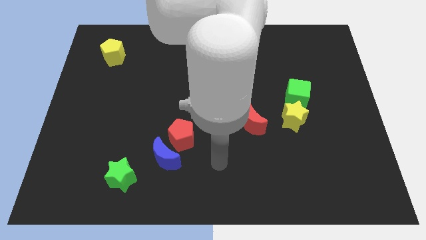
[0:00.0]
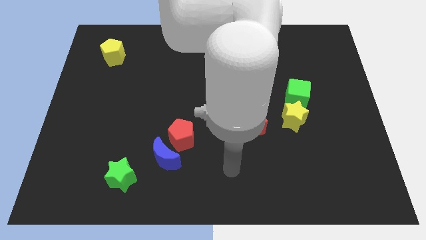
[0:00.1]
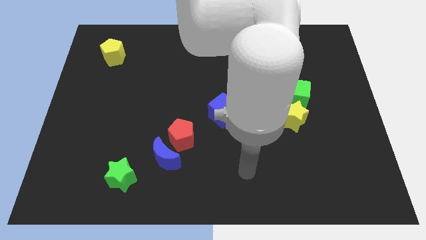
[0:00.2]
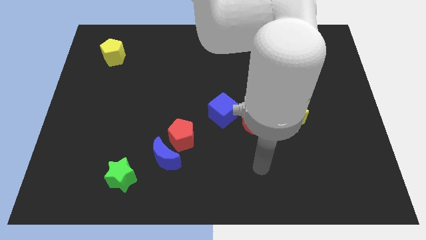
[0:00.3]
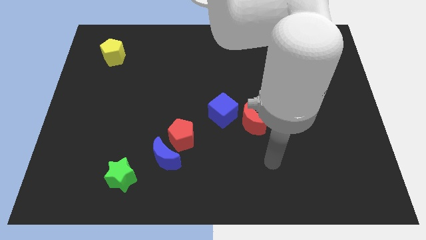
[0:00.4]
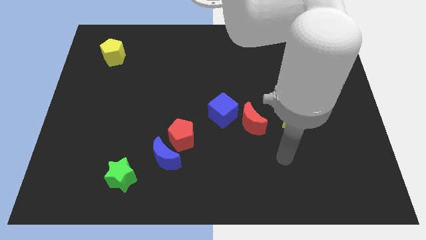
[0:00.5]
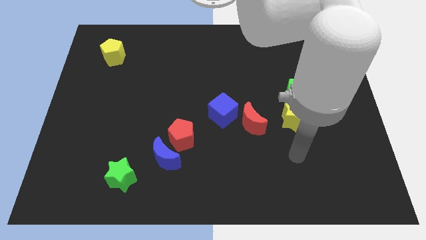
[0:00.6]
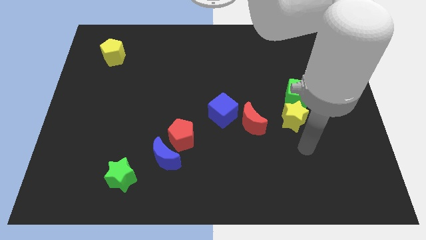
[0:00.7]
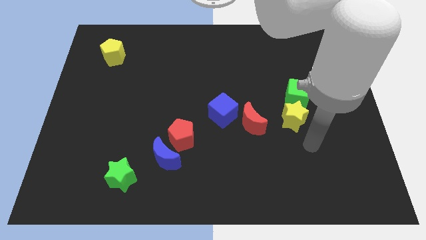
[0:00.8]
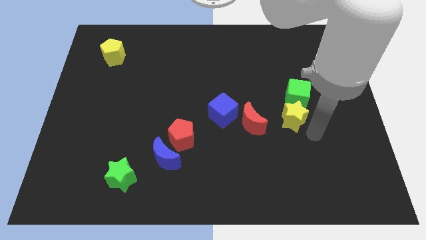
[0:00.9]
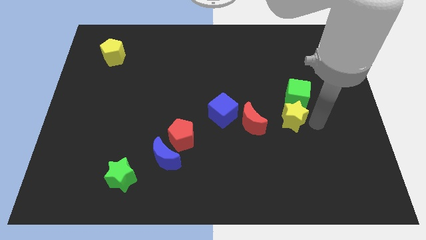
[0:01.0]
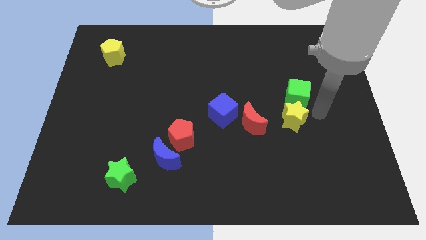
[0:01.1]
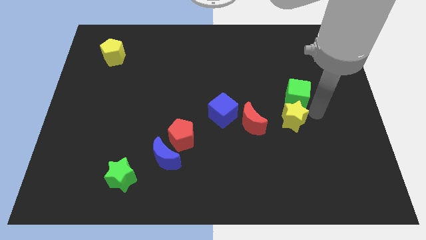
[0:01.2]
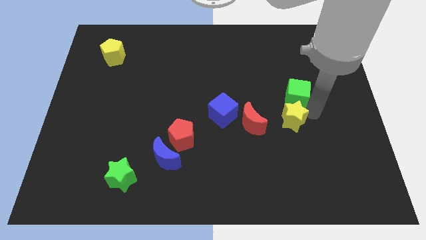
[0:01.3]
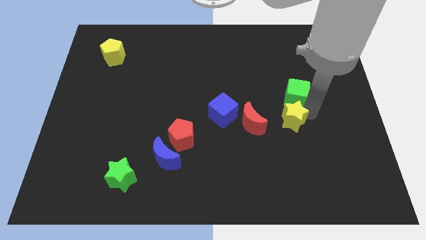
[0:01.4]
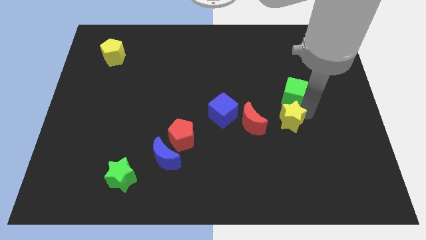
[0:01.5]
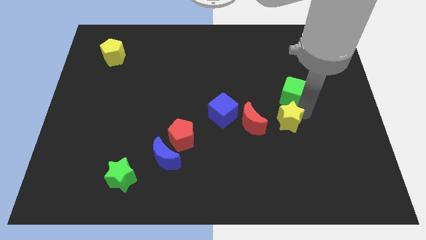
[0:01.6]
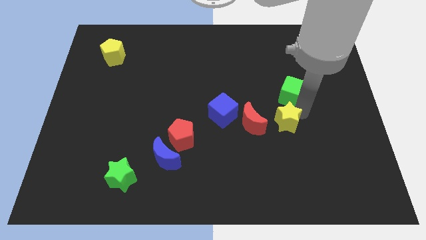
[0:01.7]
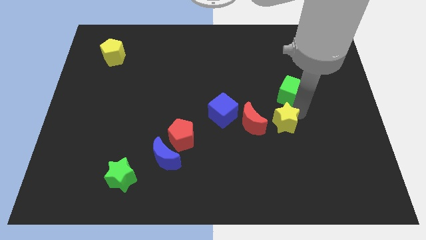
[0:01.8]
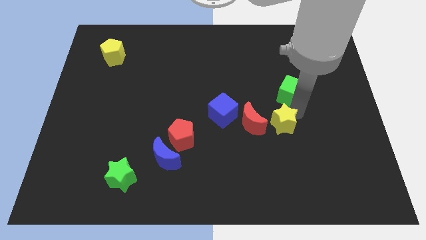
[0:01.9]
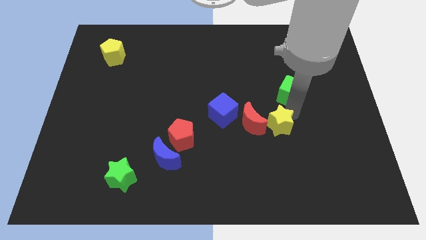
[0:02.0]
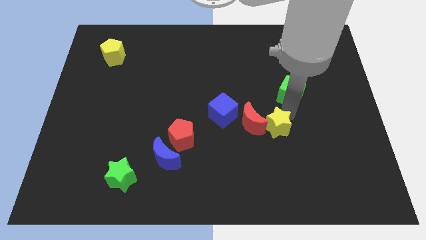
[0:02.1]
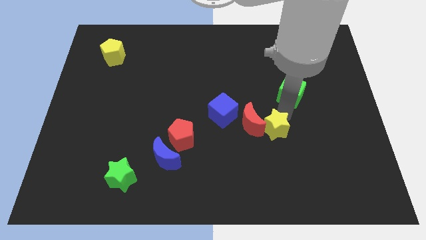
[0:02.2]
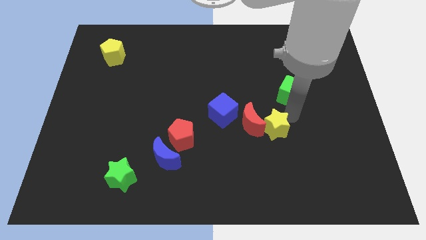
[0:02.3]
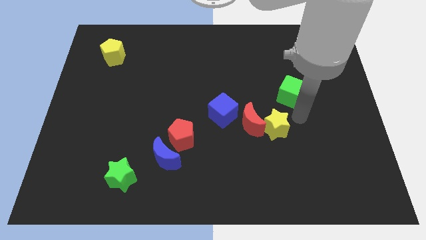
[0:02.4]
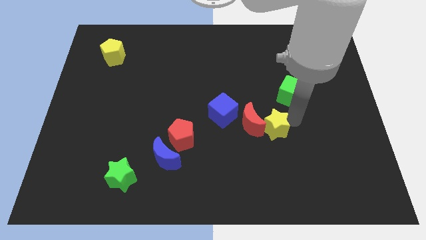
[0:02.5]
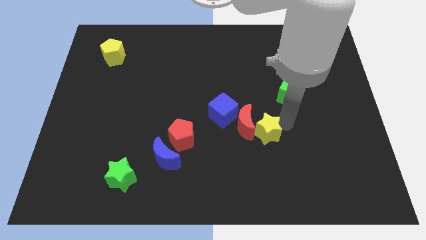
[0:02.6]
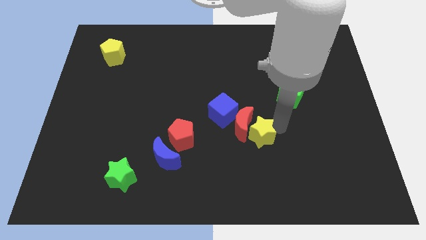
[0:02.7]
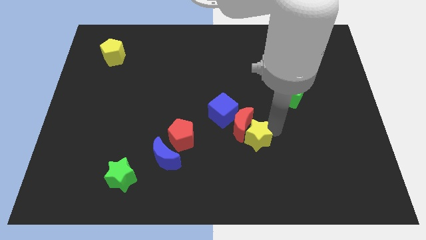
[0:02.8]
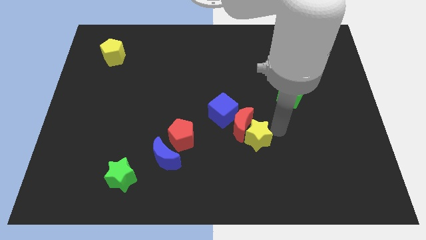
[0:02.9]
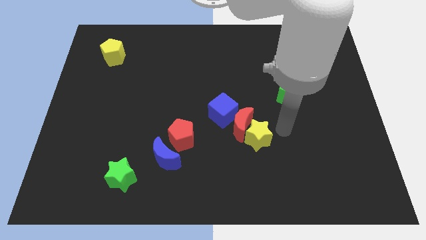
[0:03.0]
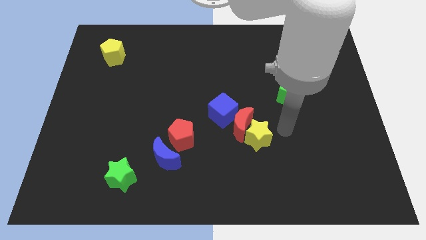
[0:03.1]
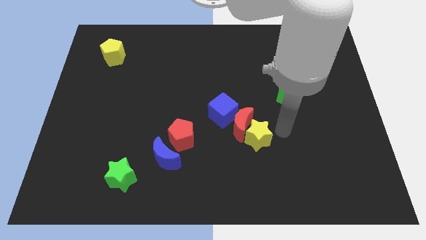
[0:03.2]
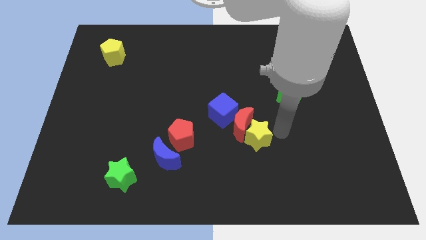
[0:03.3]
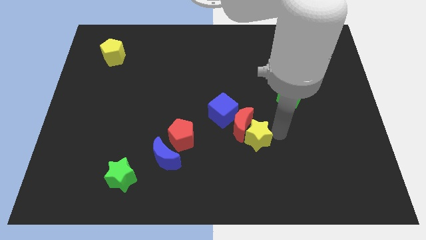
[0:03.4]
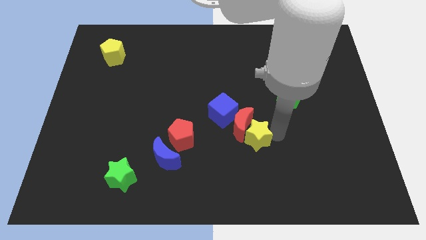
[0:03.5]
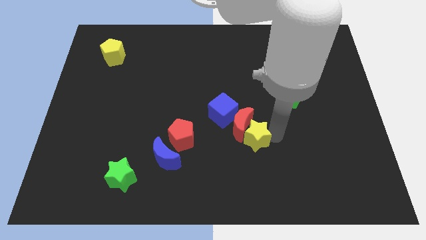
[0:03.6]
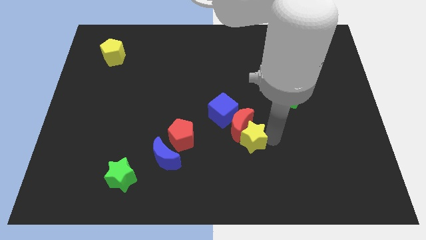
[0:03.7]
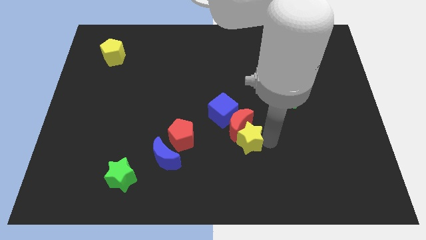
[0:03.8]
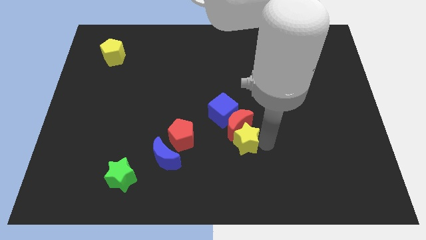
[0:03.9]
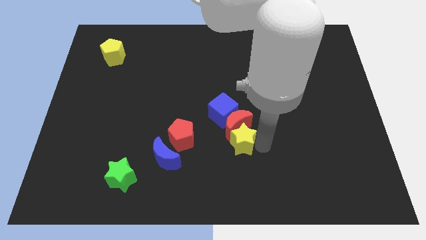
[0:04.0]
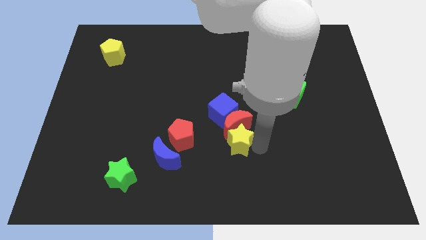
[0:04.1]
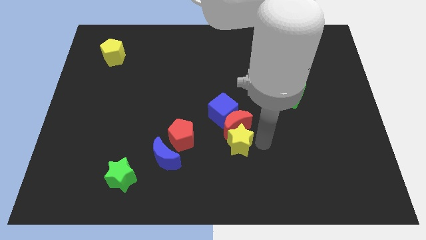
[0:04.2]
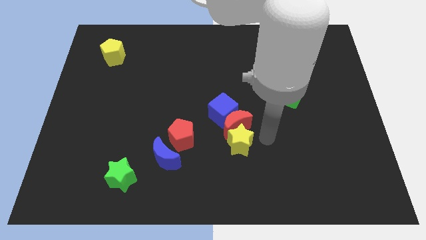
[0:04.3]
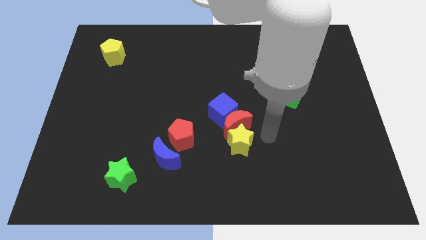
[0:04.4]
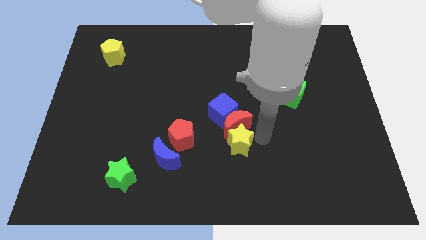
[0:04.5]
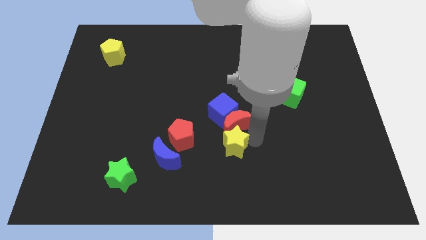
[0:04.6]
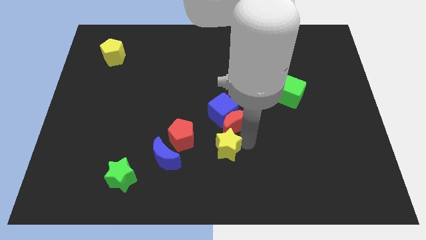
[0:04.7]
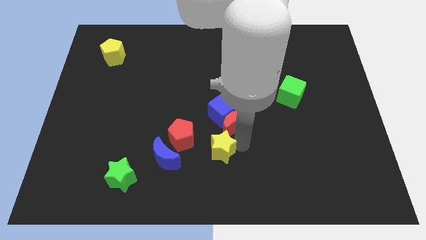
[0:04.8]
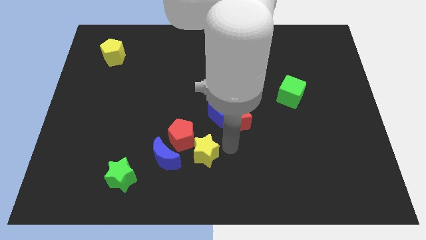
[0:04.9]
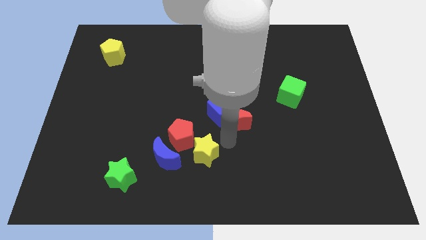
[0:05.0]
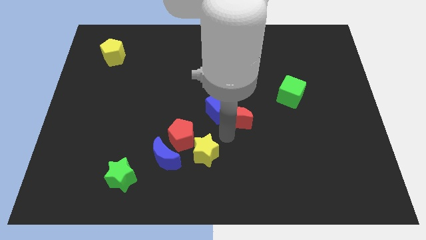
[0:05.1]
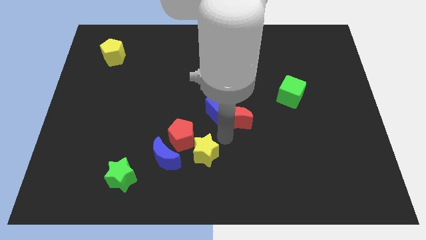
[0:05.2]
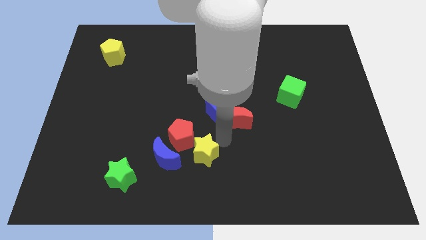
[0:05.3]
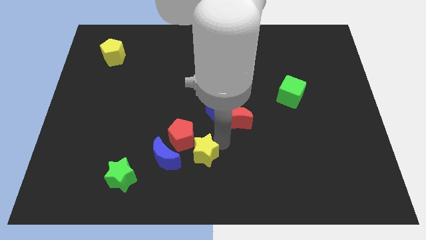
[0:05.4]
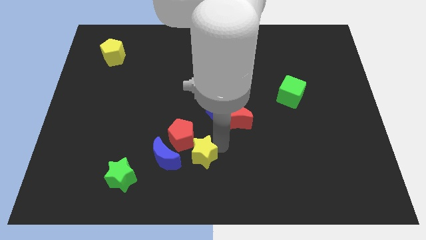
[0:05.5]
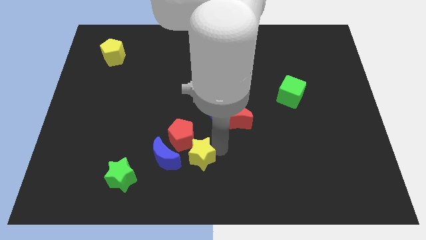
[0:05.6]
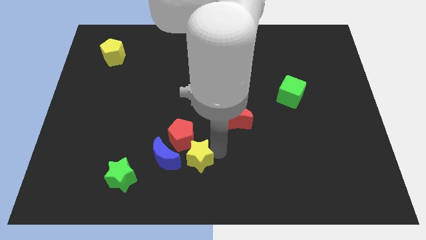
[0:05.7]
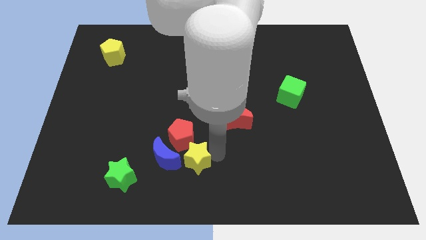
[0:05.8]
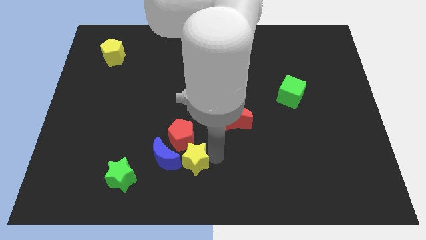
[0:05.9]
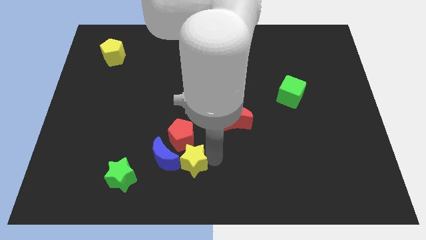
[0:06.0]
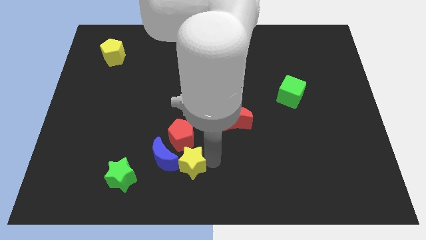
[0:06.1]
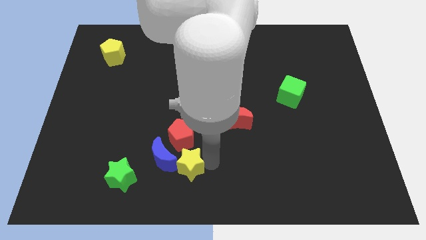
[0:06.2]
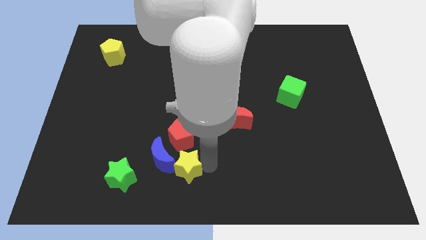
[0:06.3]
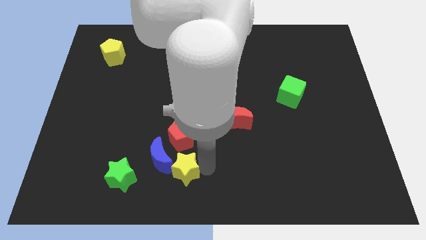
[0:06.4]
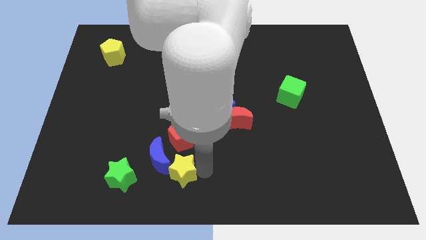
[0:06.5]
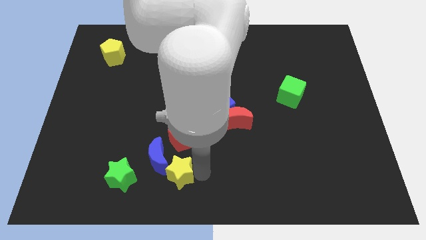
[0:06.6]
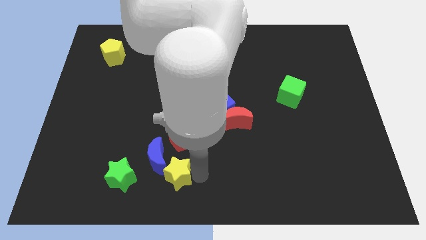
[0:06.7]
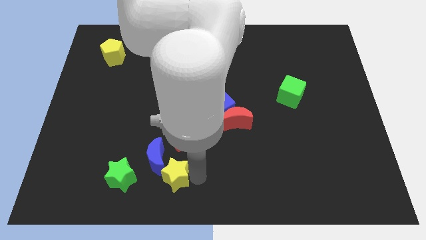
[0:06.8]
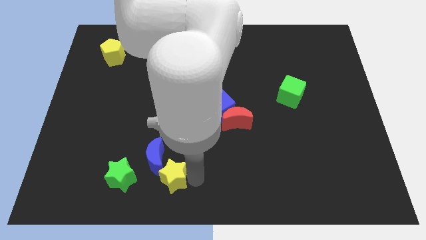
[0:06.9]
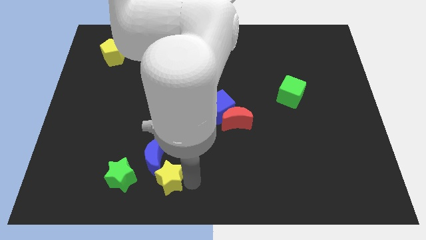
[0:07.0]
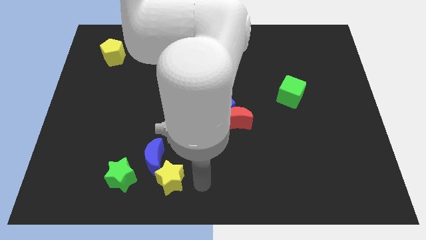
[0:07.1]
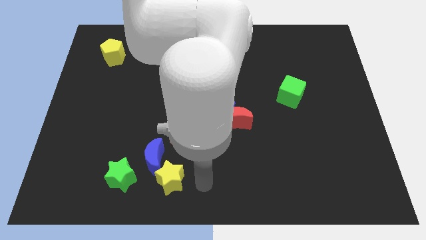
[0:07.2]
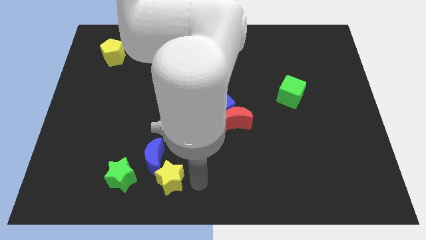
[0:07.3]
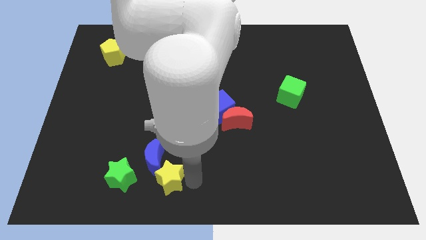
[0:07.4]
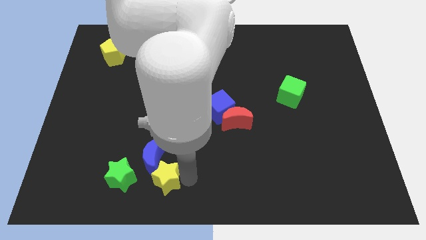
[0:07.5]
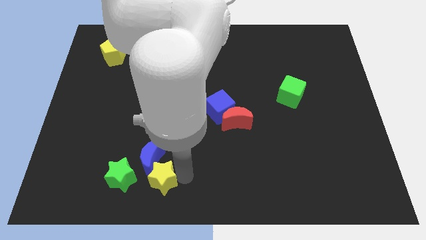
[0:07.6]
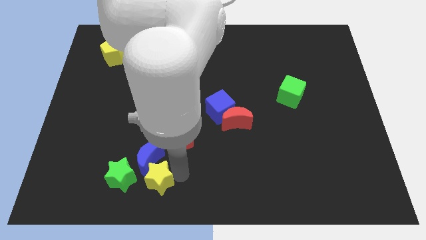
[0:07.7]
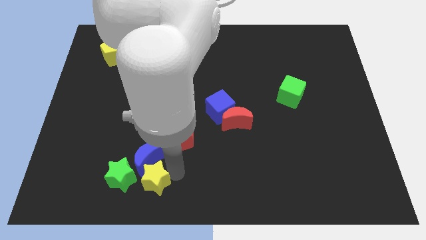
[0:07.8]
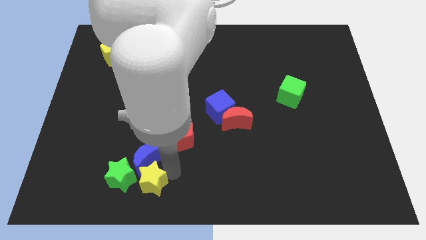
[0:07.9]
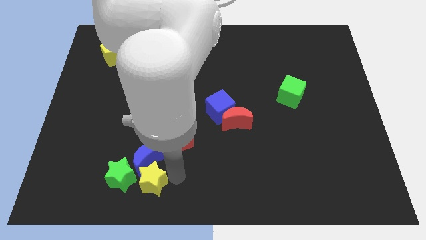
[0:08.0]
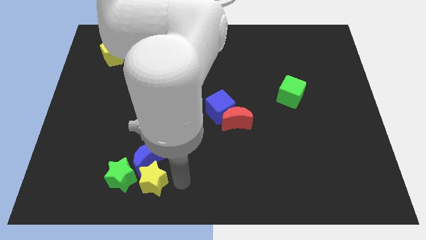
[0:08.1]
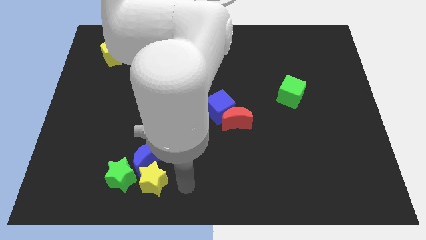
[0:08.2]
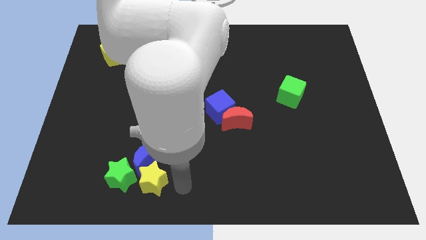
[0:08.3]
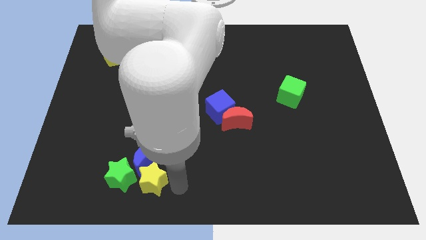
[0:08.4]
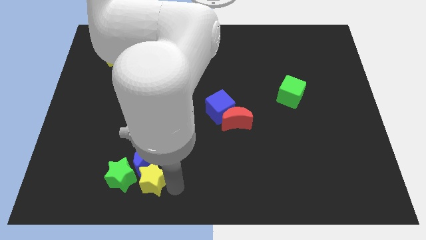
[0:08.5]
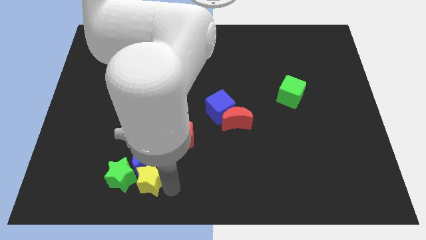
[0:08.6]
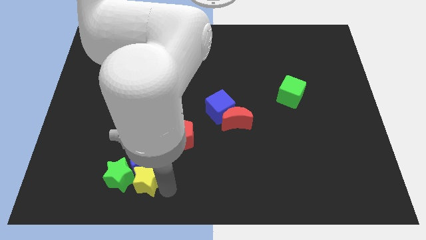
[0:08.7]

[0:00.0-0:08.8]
slide the yellow star close to the green star
